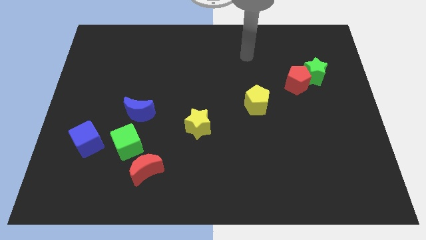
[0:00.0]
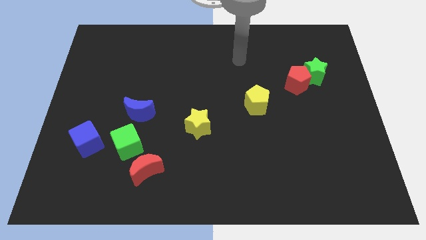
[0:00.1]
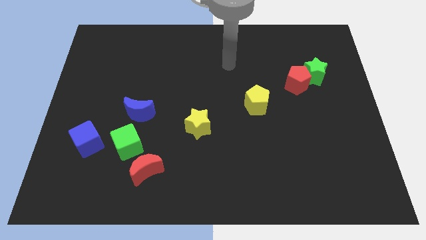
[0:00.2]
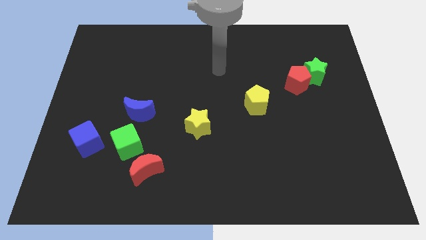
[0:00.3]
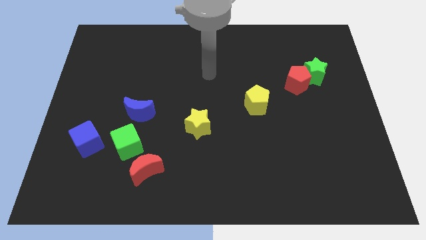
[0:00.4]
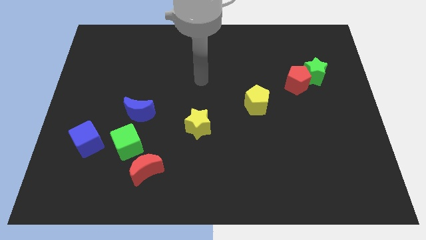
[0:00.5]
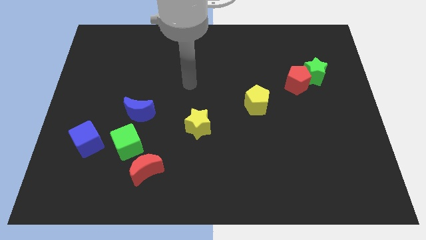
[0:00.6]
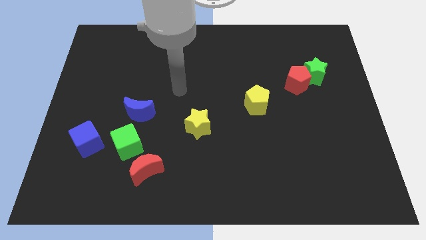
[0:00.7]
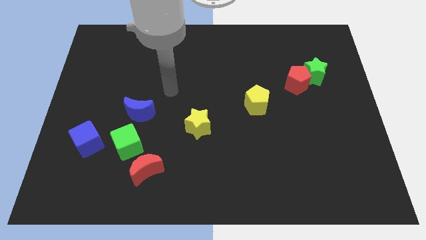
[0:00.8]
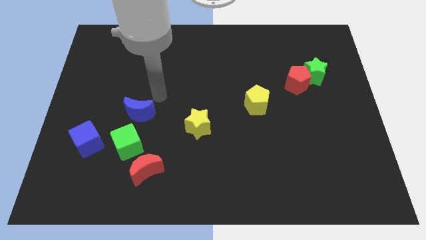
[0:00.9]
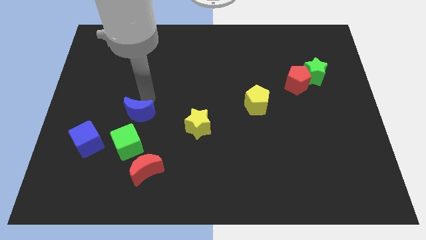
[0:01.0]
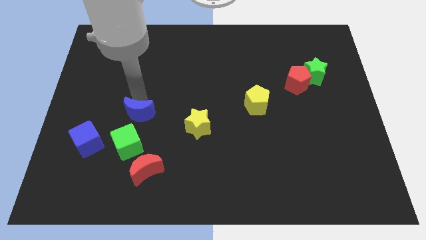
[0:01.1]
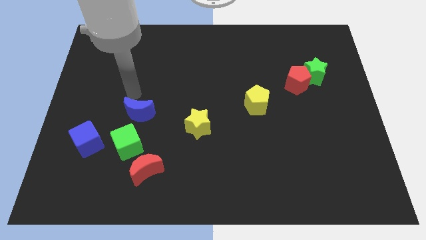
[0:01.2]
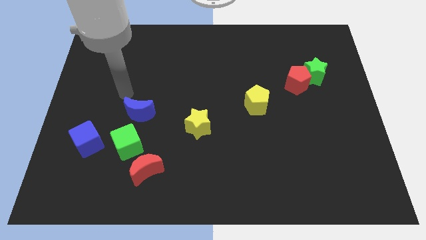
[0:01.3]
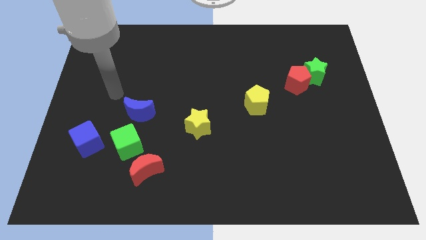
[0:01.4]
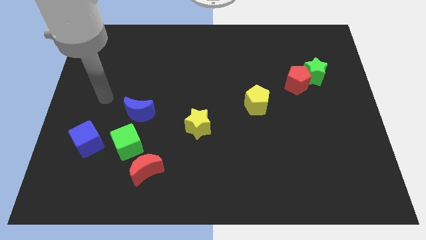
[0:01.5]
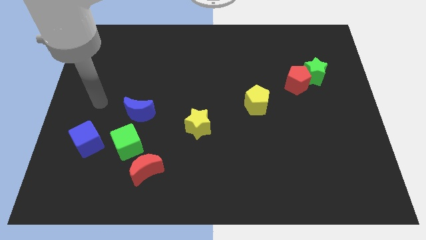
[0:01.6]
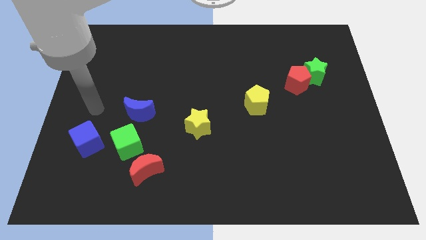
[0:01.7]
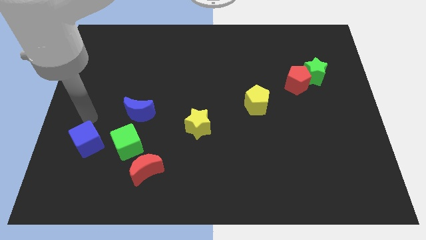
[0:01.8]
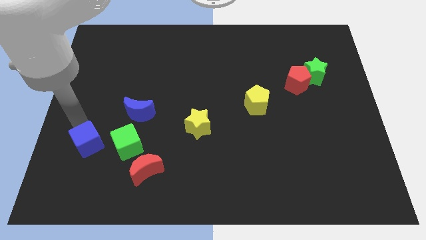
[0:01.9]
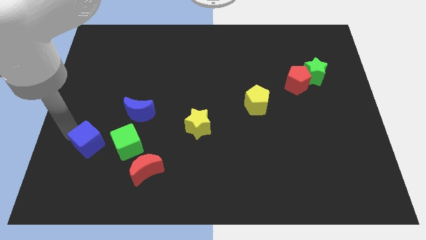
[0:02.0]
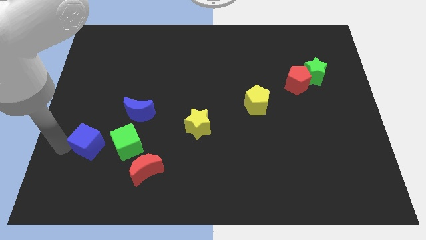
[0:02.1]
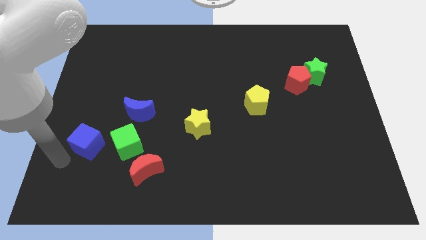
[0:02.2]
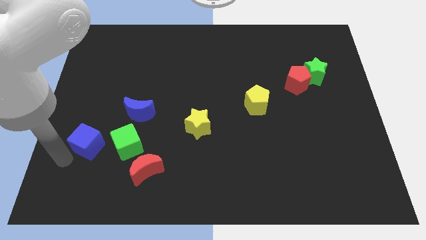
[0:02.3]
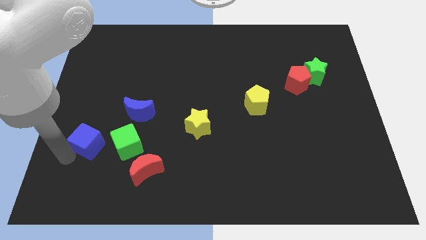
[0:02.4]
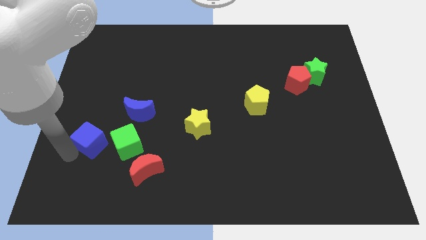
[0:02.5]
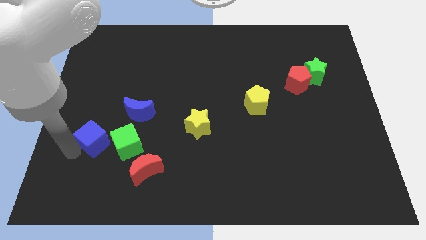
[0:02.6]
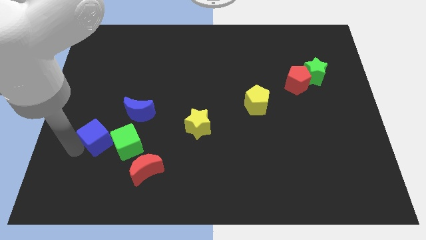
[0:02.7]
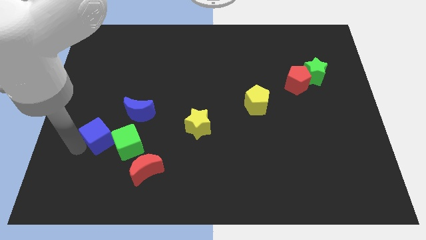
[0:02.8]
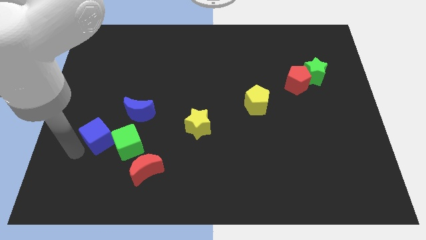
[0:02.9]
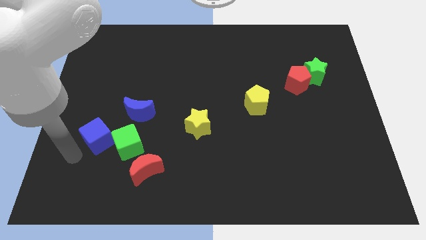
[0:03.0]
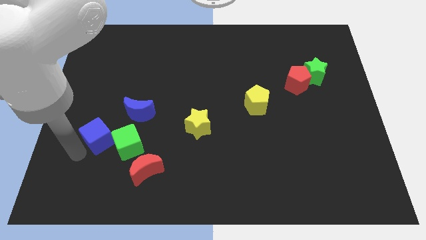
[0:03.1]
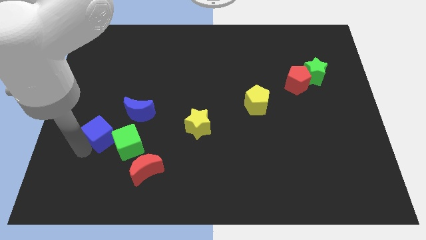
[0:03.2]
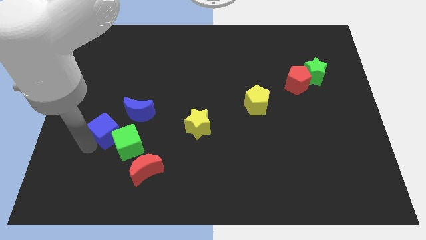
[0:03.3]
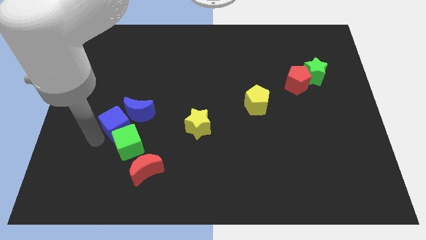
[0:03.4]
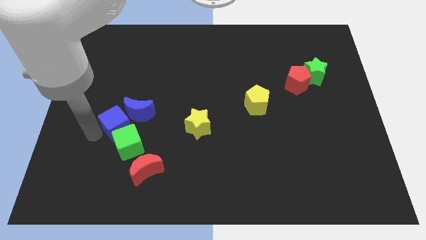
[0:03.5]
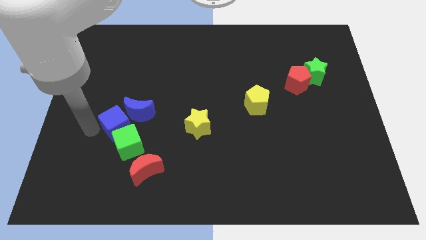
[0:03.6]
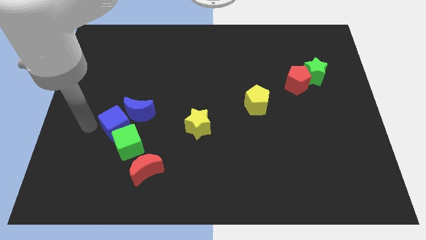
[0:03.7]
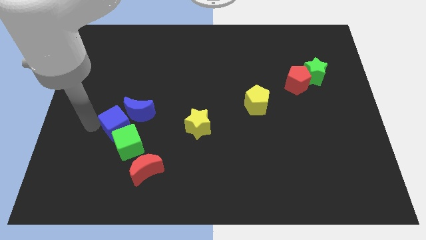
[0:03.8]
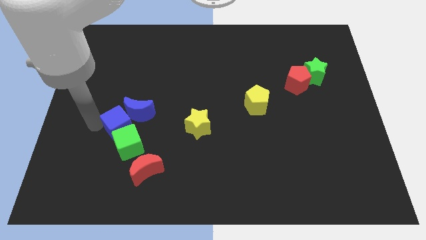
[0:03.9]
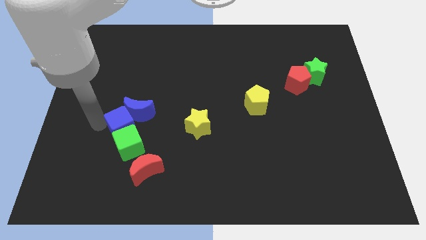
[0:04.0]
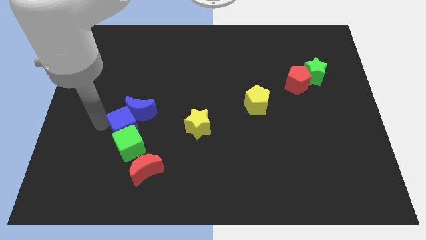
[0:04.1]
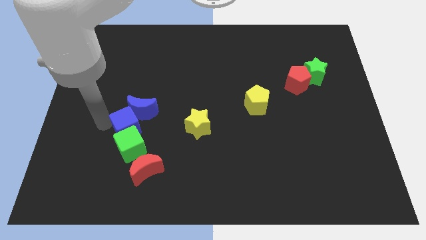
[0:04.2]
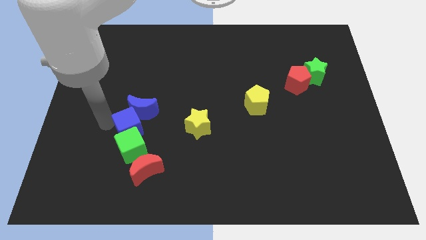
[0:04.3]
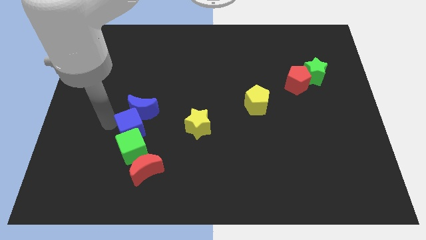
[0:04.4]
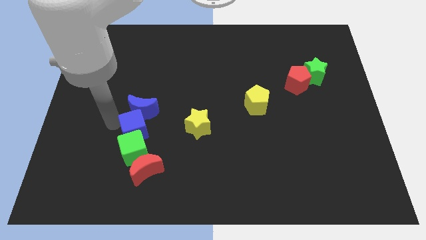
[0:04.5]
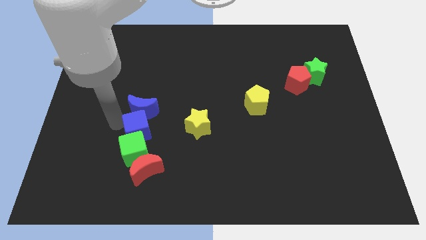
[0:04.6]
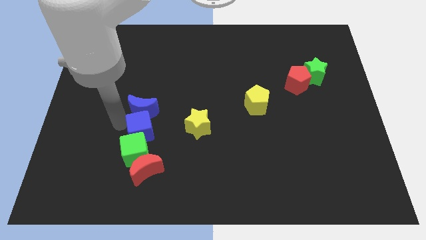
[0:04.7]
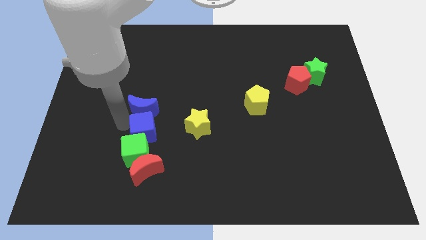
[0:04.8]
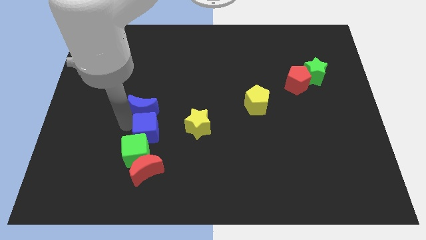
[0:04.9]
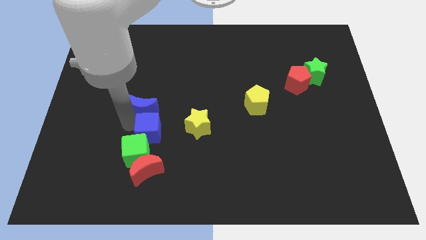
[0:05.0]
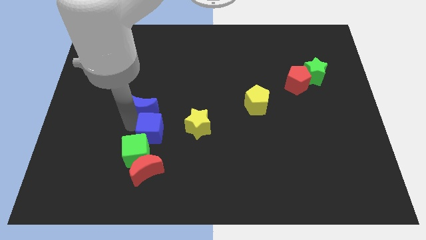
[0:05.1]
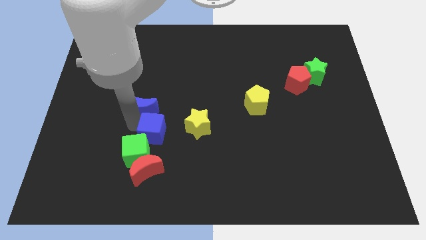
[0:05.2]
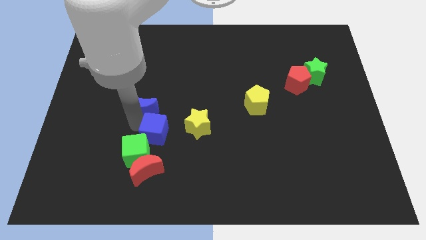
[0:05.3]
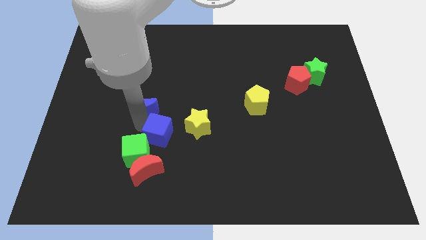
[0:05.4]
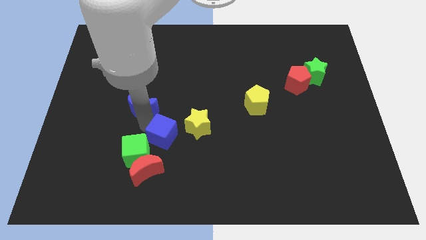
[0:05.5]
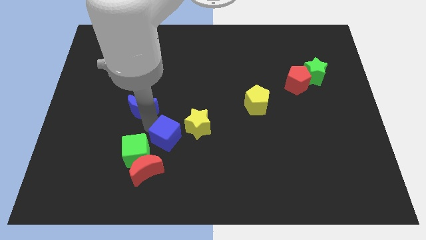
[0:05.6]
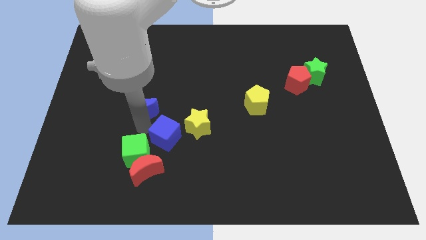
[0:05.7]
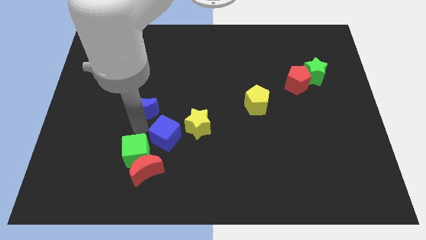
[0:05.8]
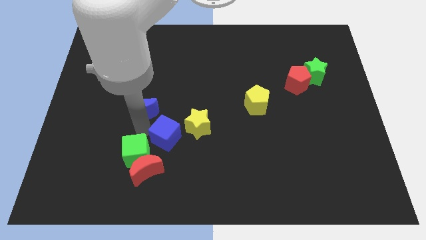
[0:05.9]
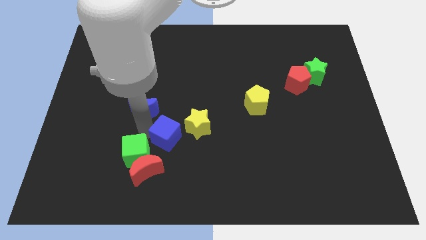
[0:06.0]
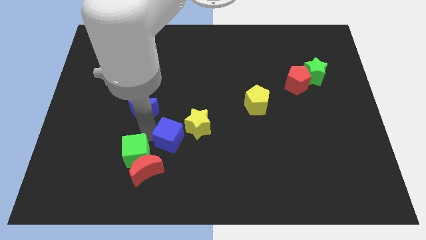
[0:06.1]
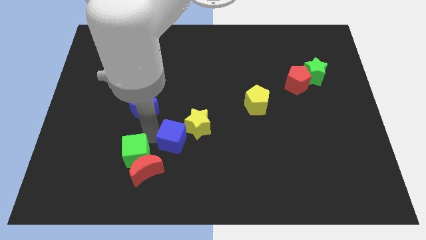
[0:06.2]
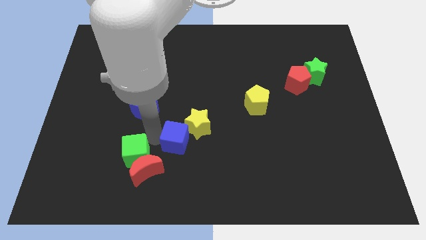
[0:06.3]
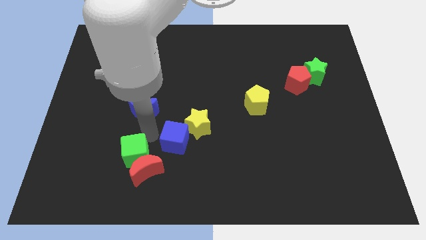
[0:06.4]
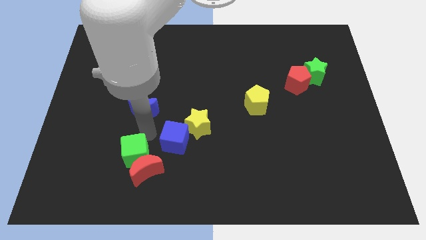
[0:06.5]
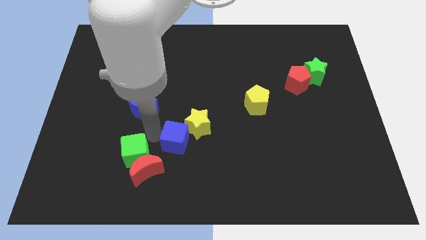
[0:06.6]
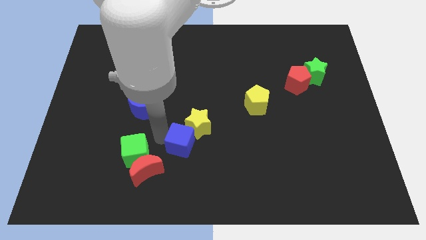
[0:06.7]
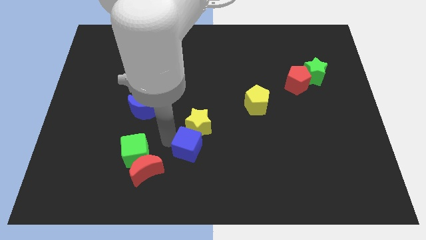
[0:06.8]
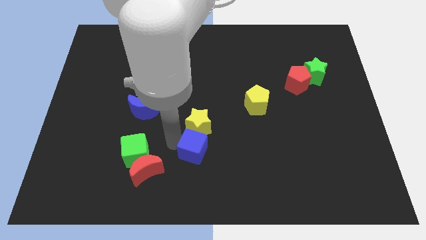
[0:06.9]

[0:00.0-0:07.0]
push the blue cube diagonally down and to the right of the yellow star
